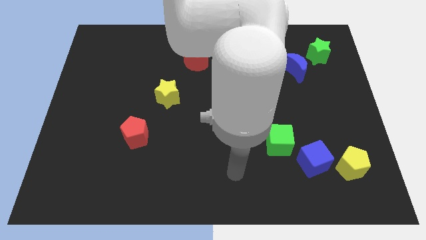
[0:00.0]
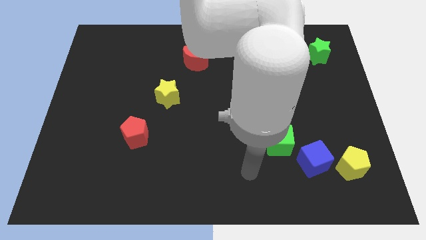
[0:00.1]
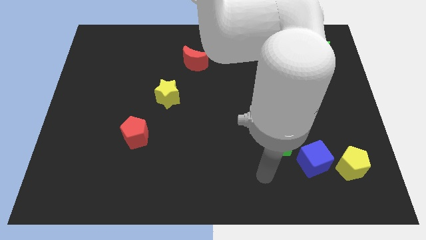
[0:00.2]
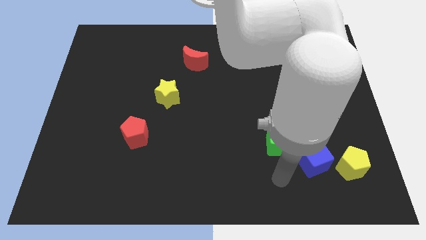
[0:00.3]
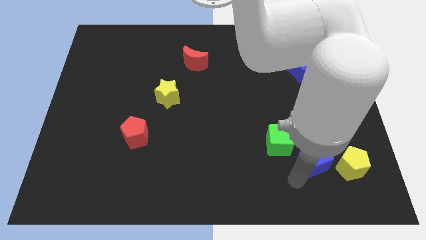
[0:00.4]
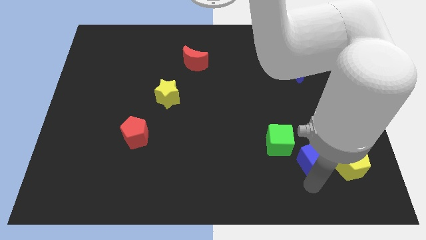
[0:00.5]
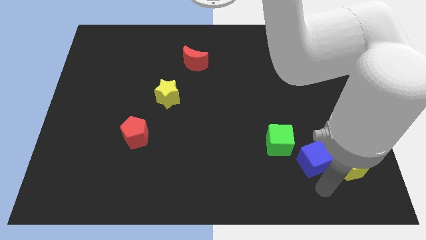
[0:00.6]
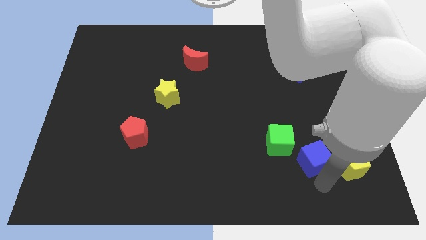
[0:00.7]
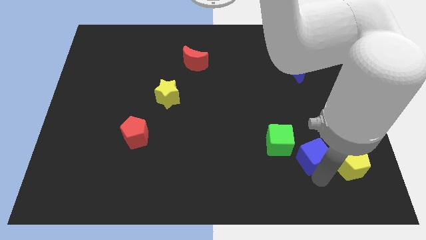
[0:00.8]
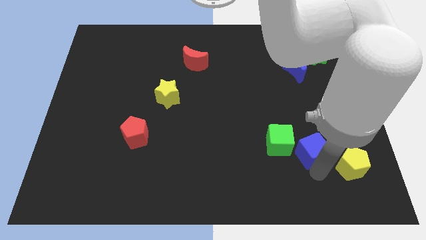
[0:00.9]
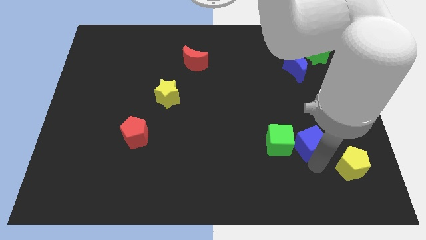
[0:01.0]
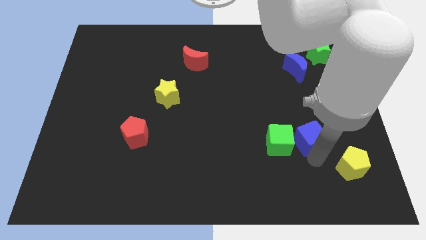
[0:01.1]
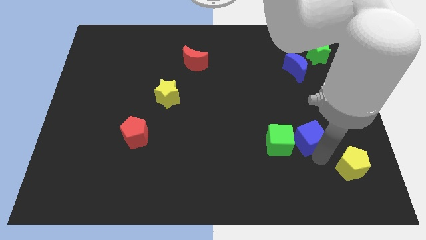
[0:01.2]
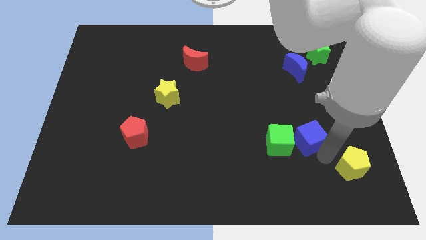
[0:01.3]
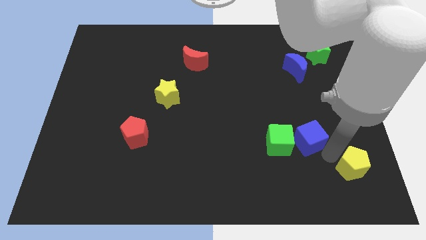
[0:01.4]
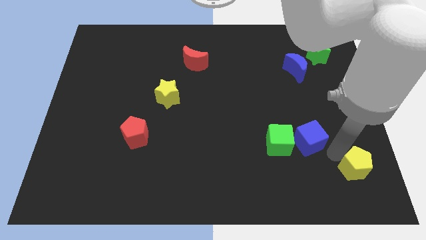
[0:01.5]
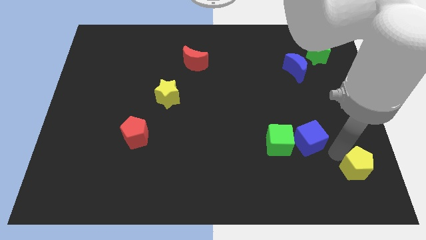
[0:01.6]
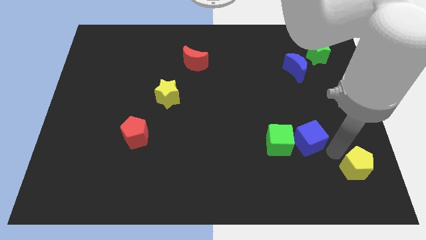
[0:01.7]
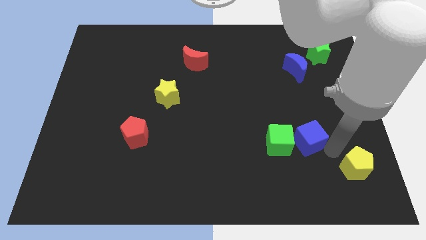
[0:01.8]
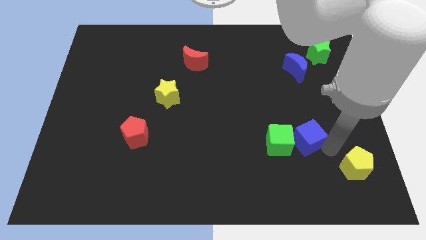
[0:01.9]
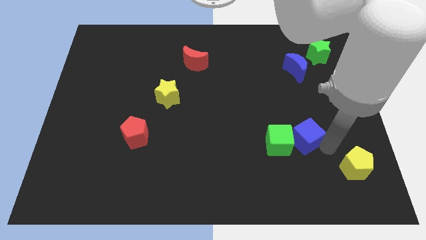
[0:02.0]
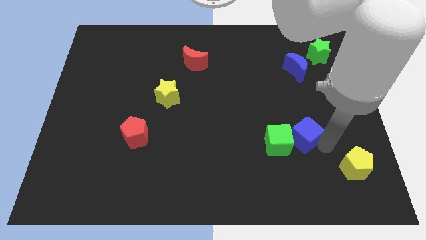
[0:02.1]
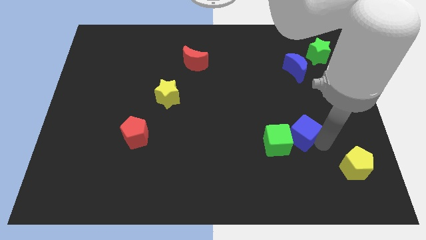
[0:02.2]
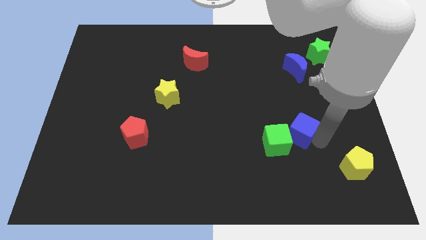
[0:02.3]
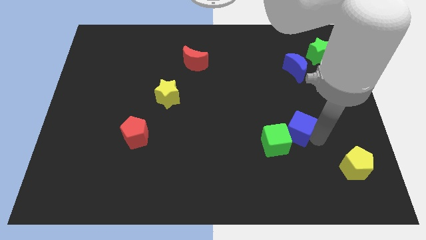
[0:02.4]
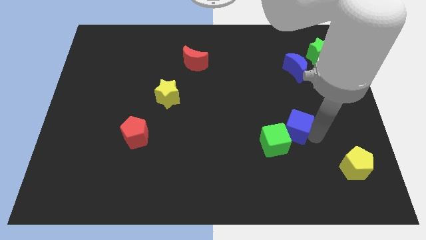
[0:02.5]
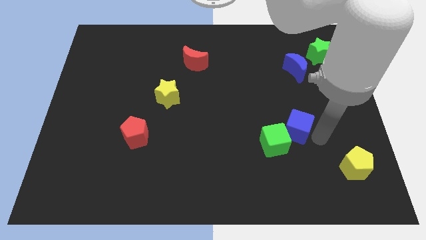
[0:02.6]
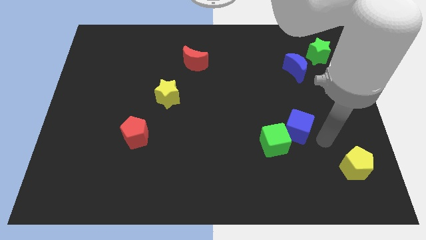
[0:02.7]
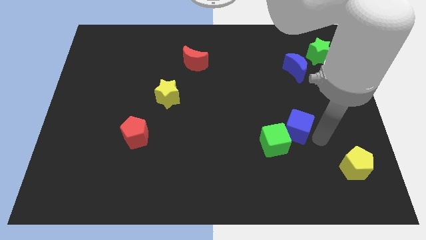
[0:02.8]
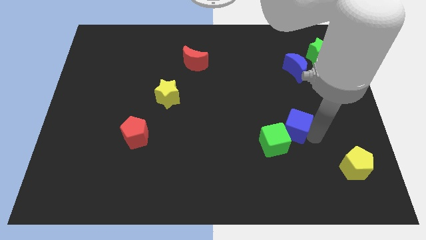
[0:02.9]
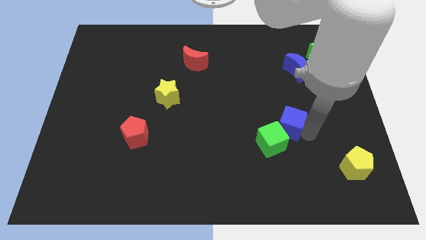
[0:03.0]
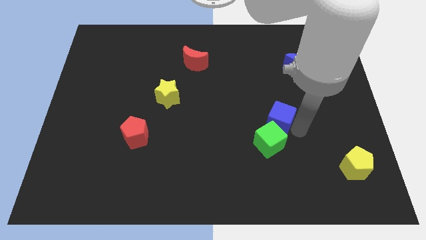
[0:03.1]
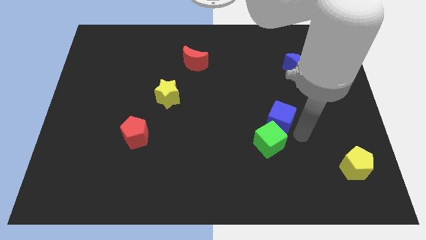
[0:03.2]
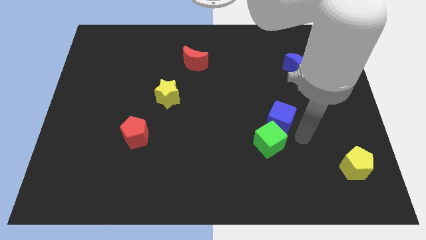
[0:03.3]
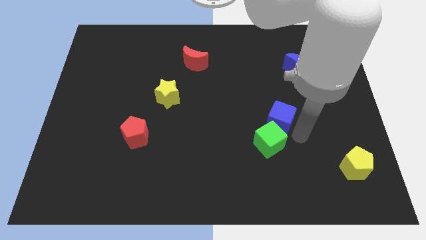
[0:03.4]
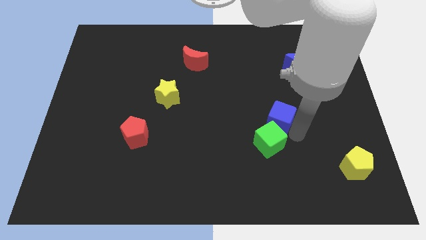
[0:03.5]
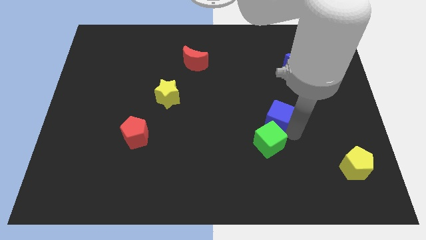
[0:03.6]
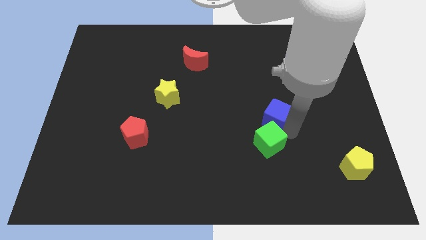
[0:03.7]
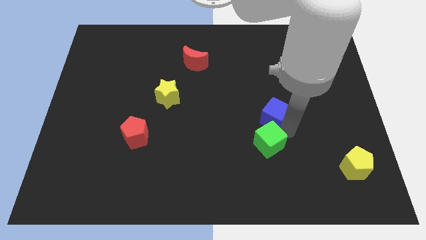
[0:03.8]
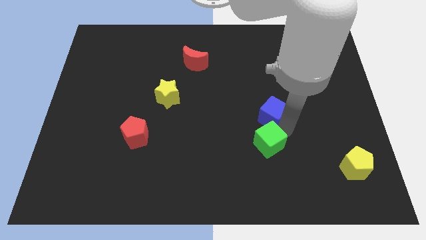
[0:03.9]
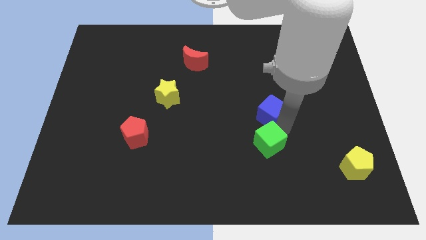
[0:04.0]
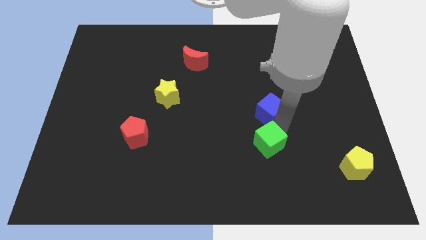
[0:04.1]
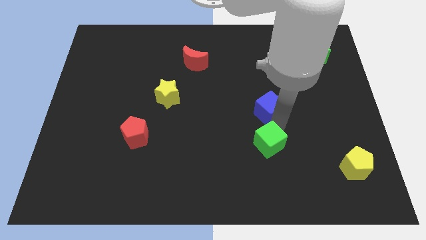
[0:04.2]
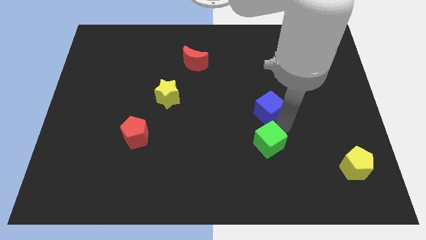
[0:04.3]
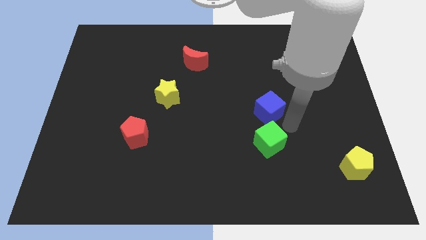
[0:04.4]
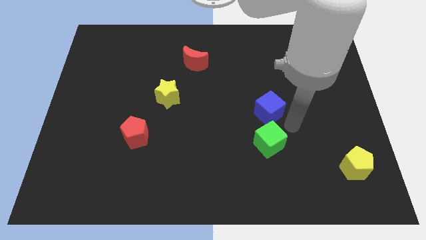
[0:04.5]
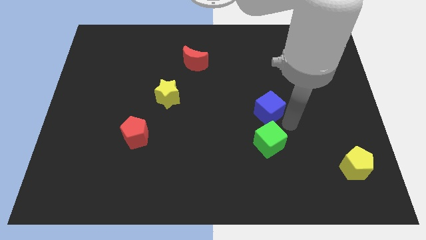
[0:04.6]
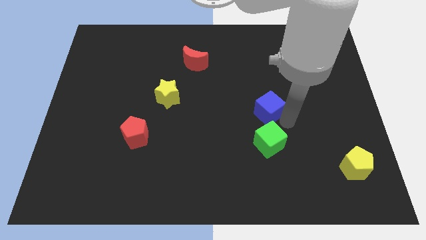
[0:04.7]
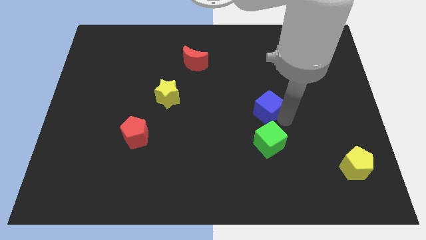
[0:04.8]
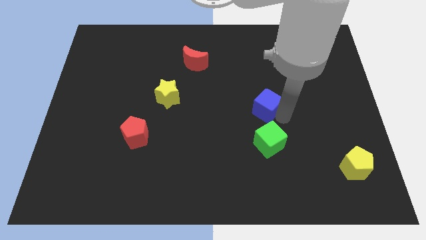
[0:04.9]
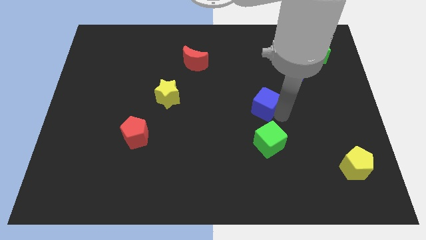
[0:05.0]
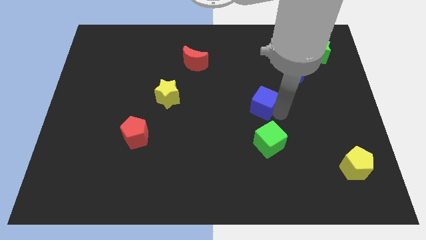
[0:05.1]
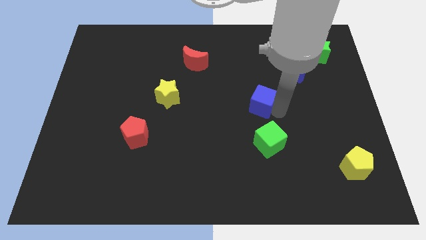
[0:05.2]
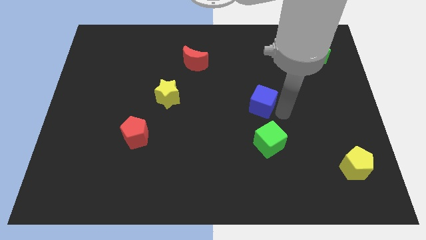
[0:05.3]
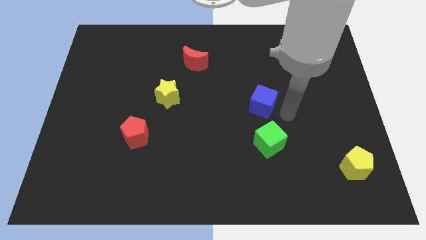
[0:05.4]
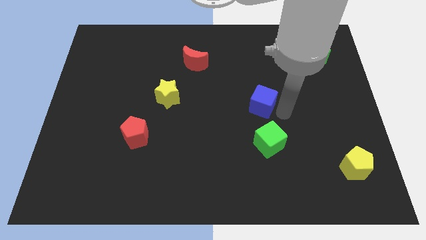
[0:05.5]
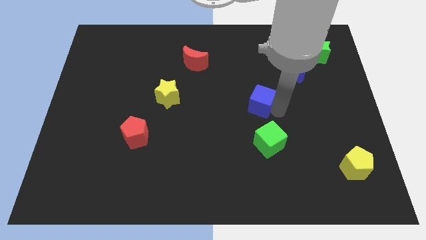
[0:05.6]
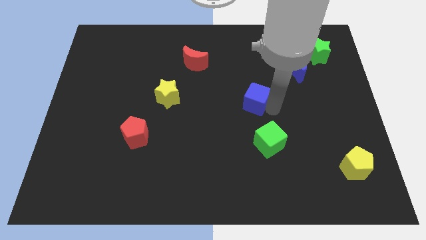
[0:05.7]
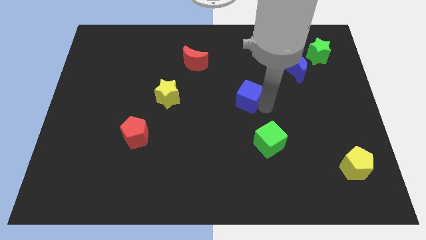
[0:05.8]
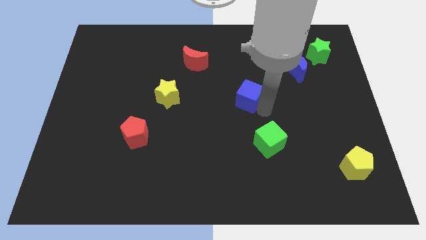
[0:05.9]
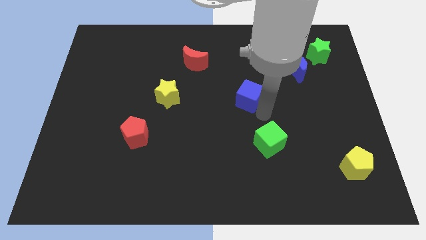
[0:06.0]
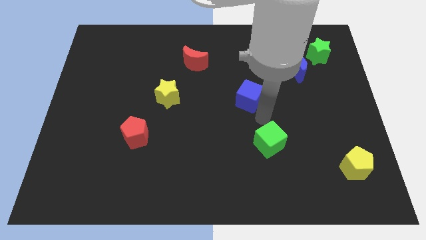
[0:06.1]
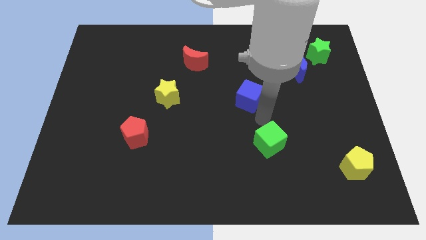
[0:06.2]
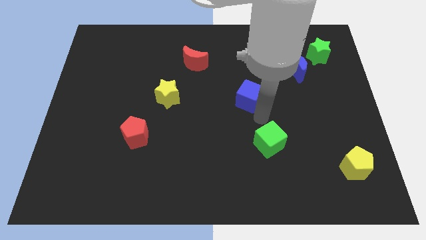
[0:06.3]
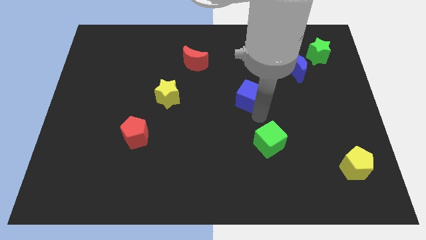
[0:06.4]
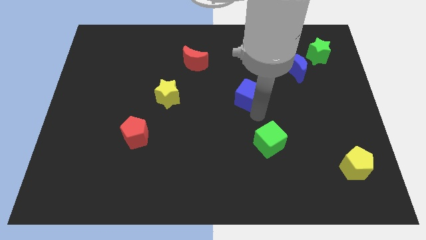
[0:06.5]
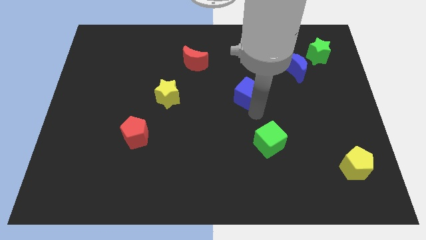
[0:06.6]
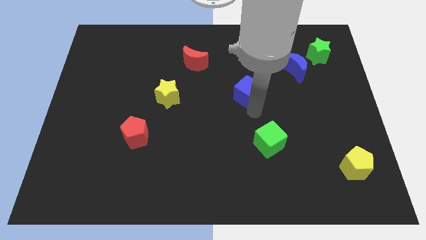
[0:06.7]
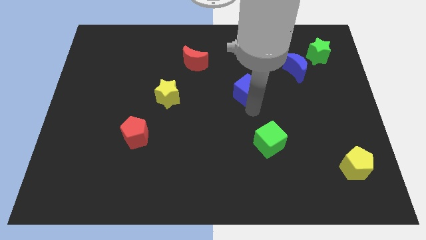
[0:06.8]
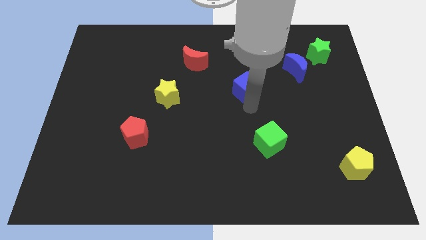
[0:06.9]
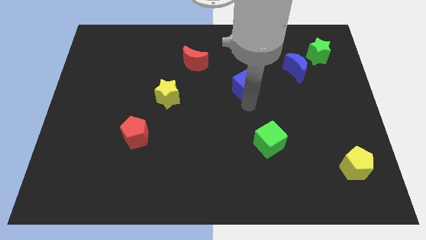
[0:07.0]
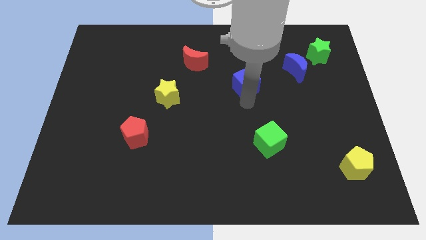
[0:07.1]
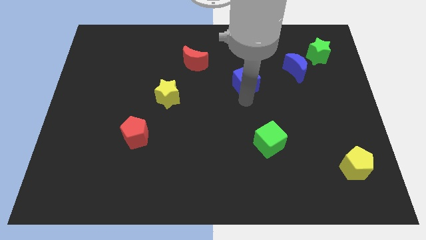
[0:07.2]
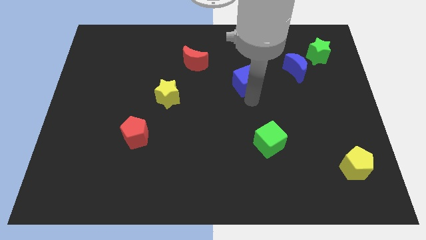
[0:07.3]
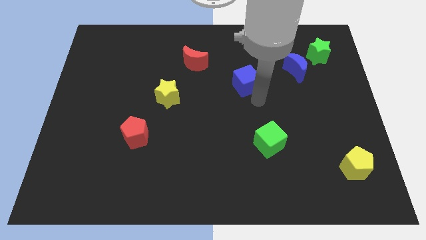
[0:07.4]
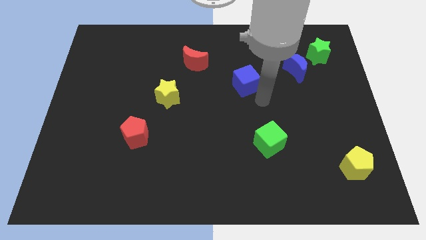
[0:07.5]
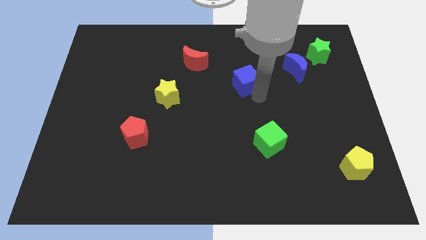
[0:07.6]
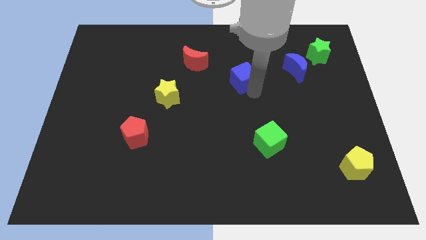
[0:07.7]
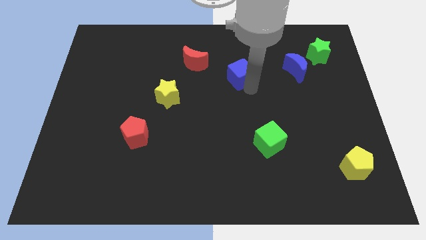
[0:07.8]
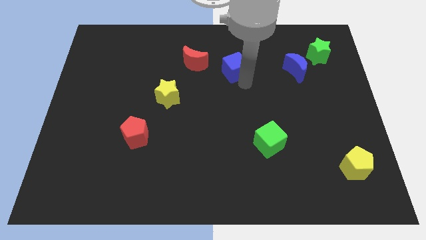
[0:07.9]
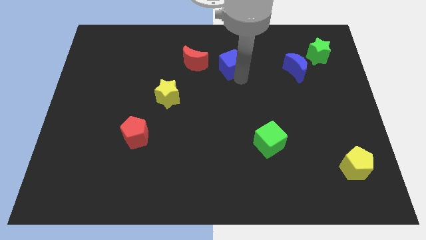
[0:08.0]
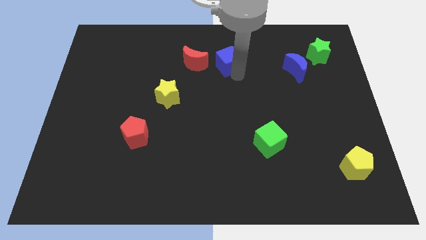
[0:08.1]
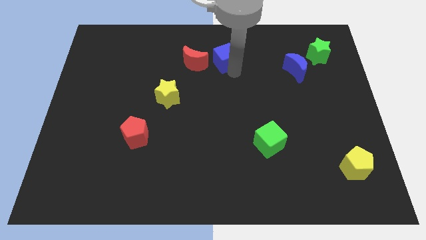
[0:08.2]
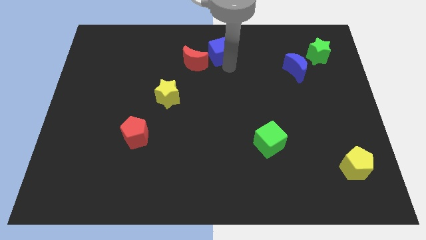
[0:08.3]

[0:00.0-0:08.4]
put the blue cube to the towards your base
